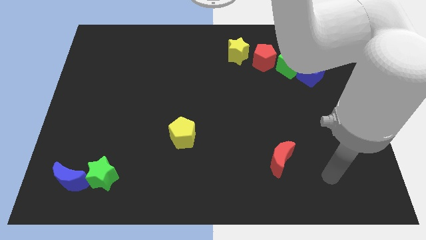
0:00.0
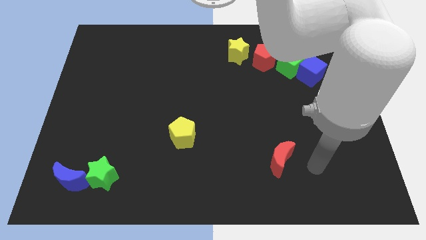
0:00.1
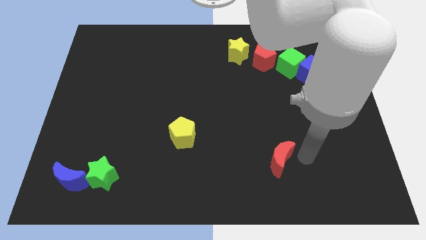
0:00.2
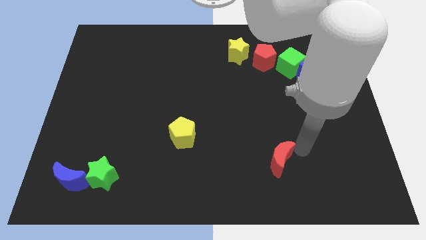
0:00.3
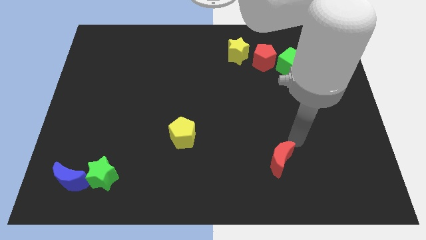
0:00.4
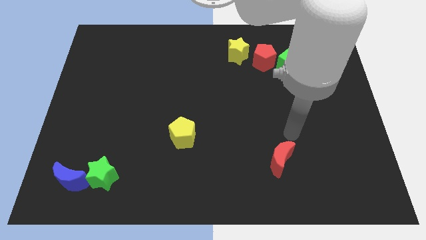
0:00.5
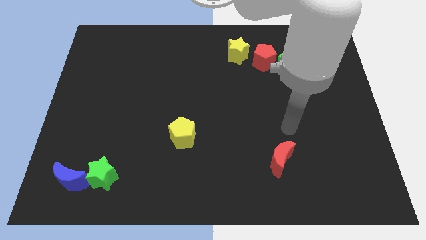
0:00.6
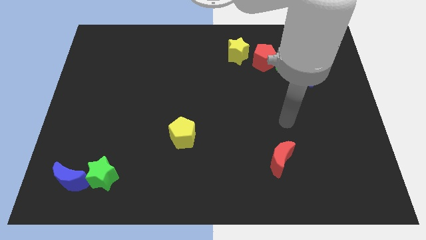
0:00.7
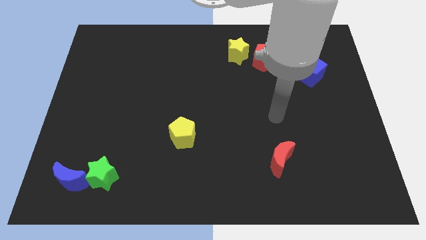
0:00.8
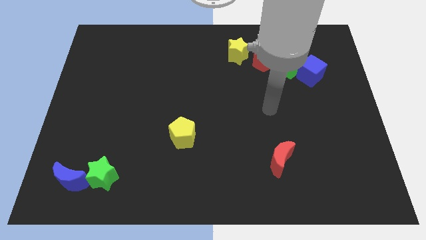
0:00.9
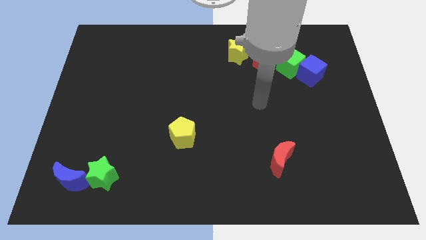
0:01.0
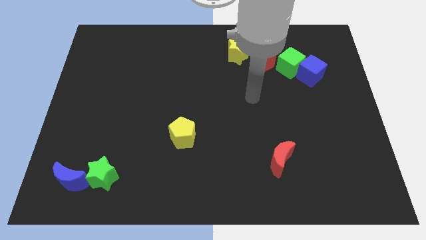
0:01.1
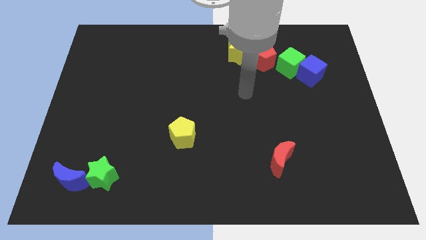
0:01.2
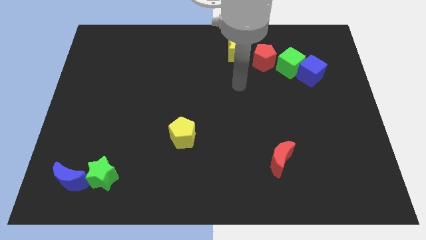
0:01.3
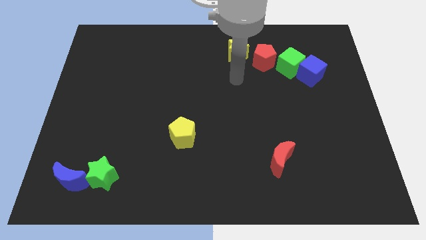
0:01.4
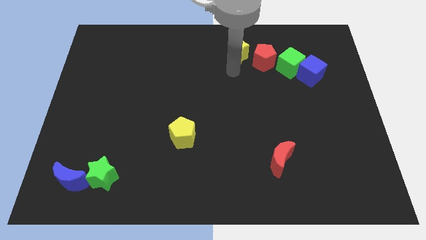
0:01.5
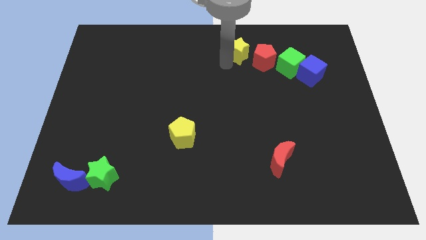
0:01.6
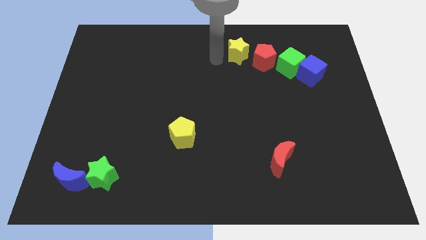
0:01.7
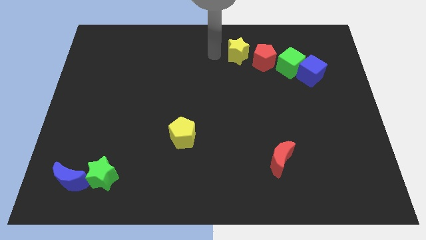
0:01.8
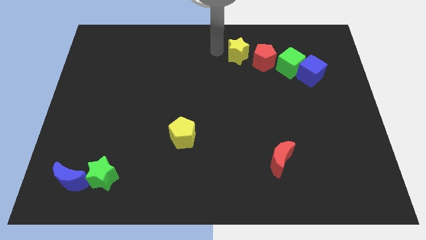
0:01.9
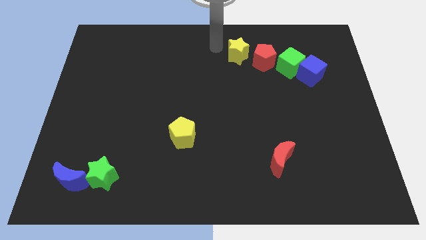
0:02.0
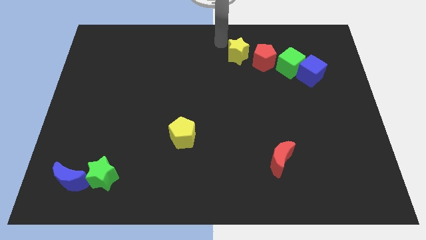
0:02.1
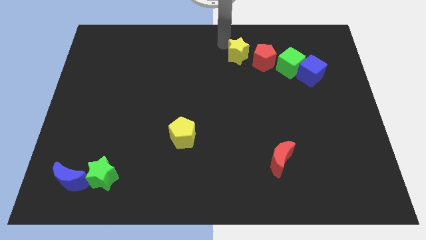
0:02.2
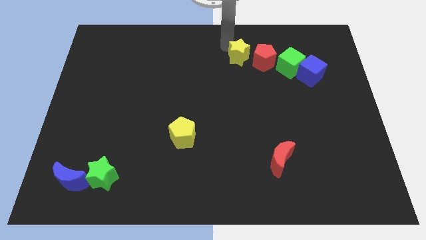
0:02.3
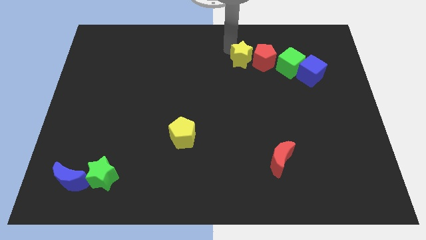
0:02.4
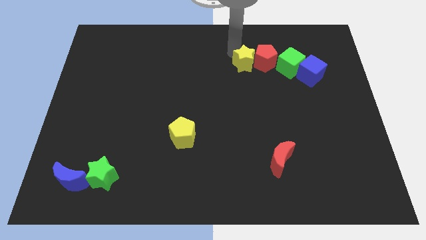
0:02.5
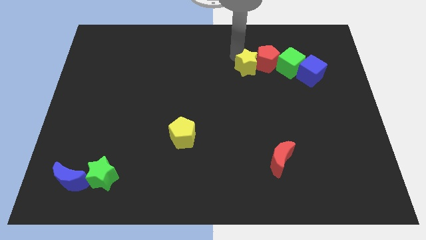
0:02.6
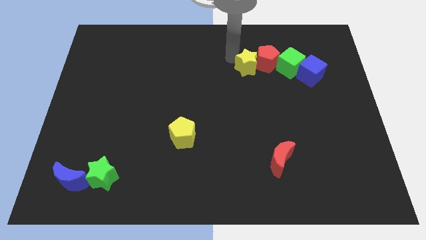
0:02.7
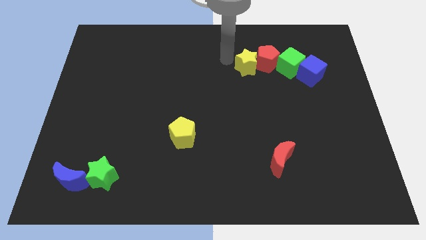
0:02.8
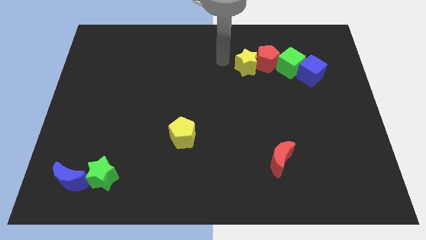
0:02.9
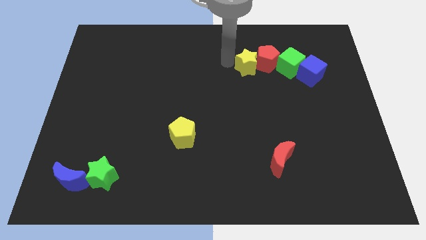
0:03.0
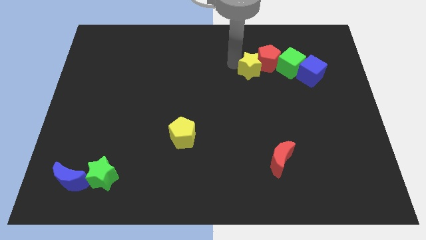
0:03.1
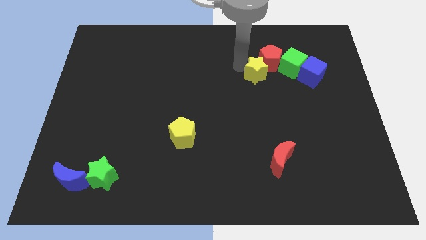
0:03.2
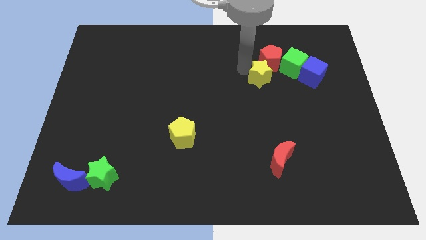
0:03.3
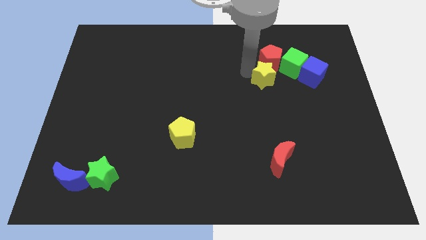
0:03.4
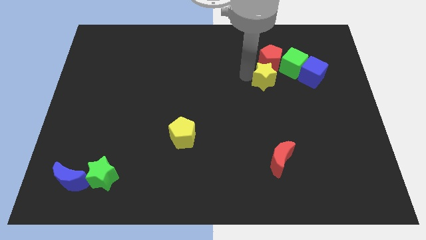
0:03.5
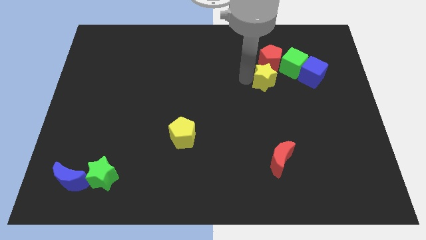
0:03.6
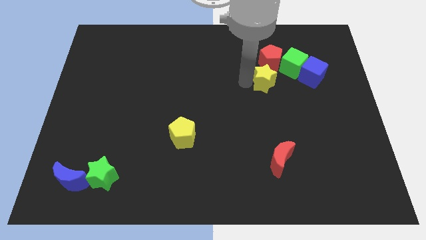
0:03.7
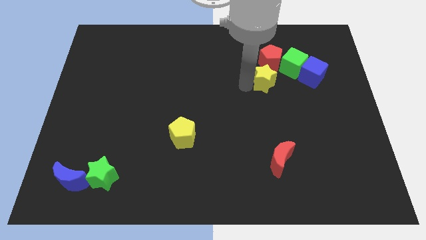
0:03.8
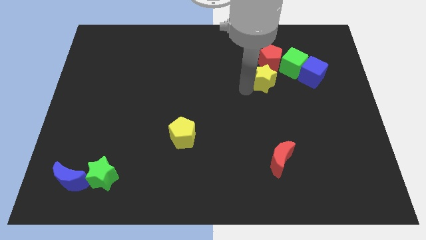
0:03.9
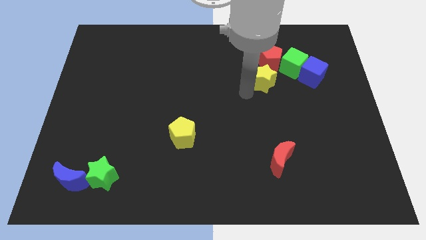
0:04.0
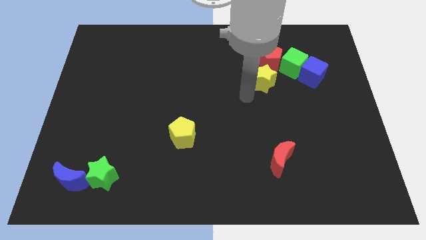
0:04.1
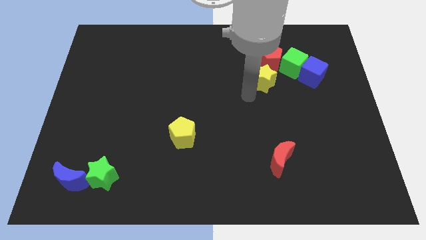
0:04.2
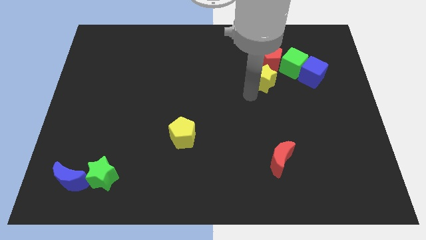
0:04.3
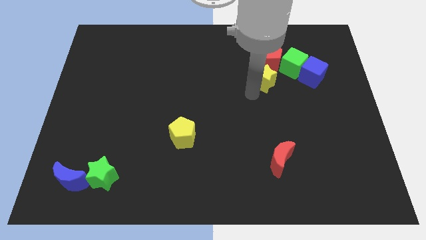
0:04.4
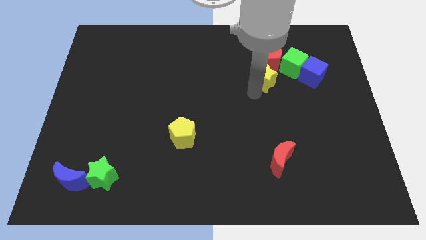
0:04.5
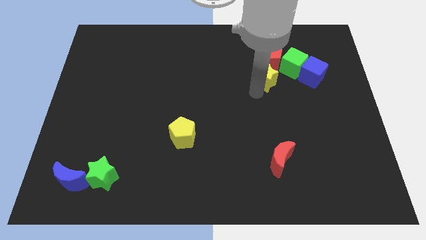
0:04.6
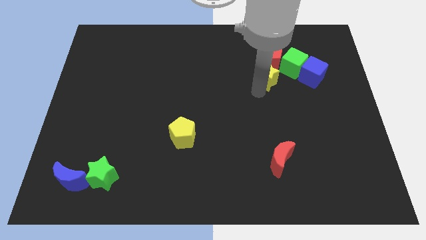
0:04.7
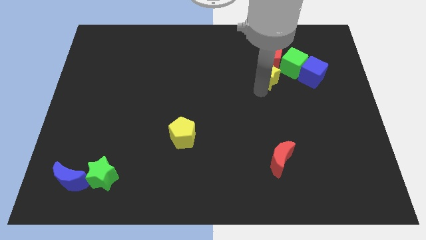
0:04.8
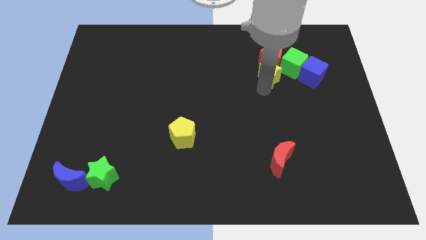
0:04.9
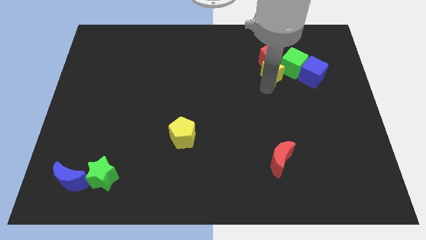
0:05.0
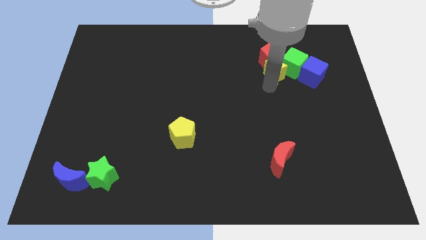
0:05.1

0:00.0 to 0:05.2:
move the yellow star close to the green cube

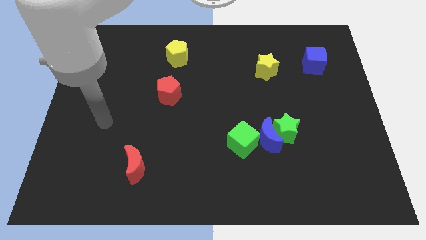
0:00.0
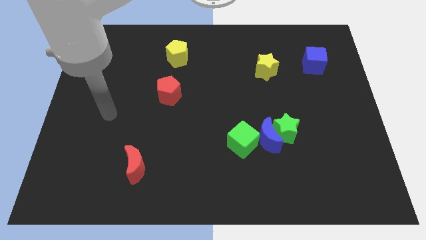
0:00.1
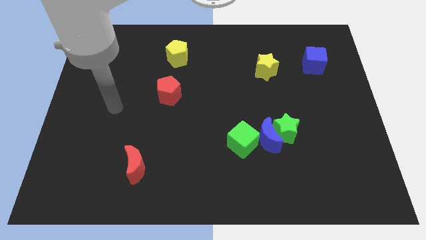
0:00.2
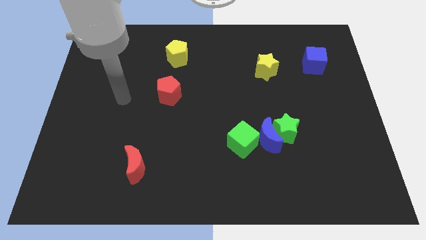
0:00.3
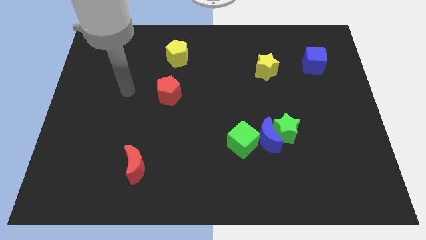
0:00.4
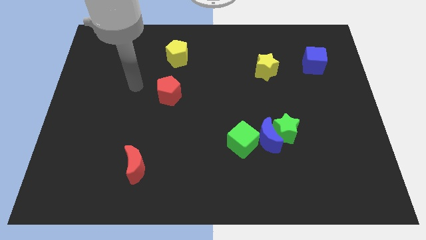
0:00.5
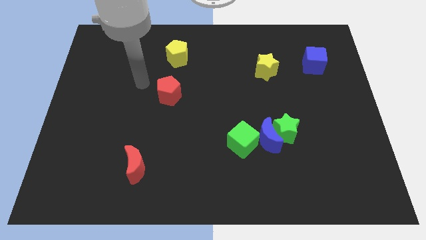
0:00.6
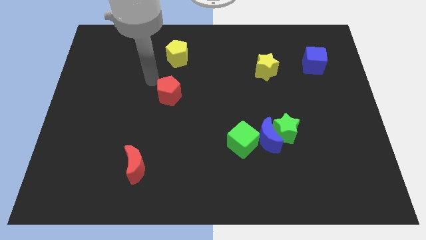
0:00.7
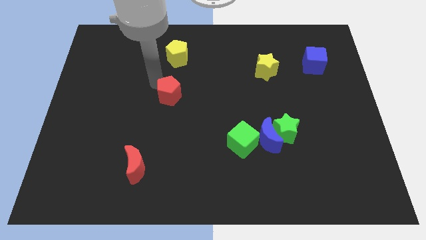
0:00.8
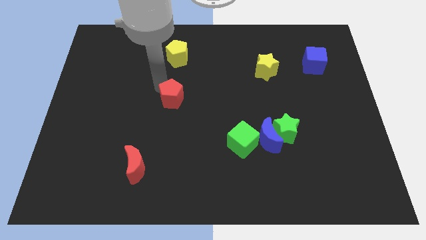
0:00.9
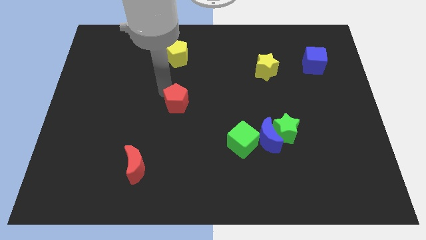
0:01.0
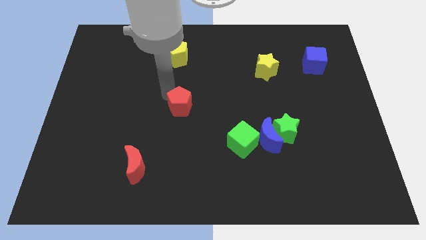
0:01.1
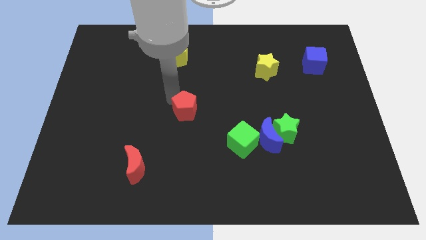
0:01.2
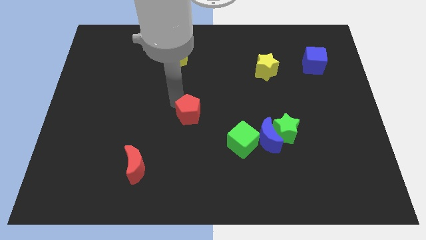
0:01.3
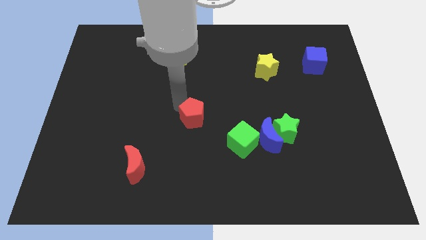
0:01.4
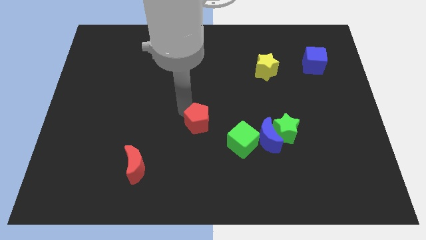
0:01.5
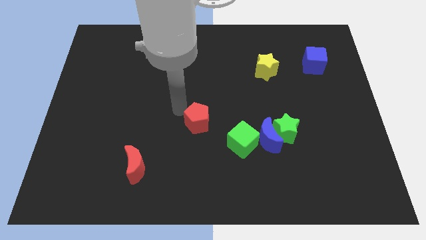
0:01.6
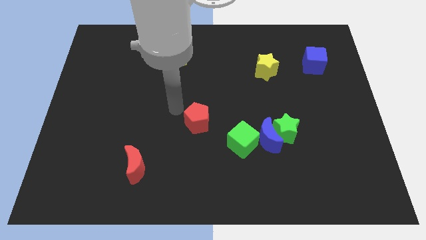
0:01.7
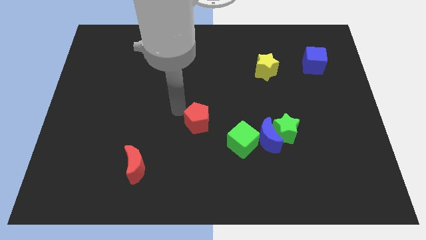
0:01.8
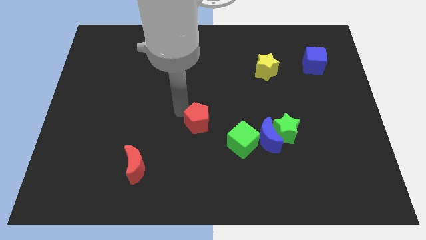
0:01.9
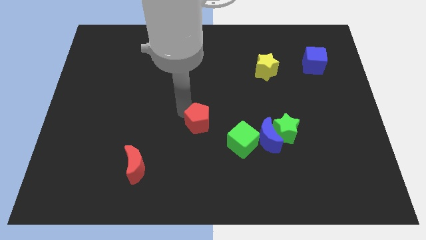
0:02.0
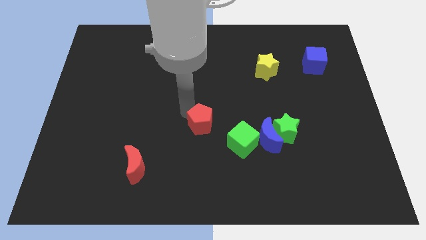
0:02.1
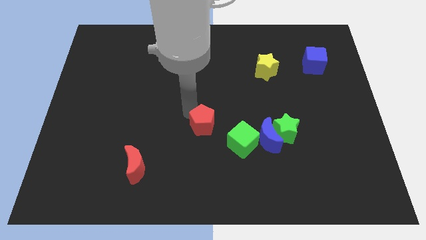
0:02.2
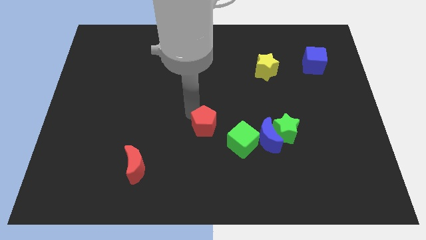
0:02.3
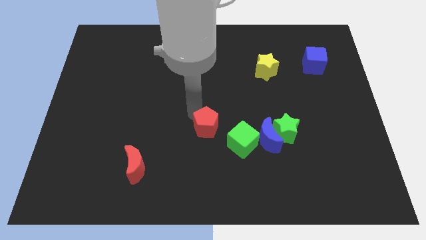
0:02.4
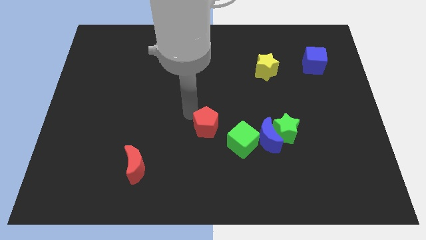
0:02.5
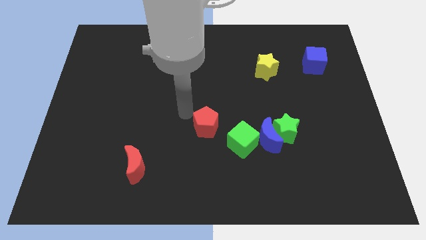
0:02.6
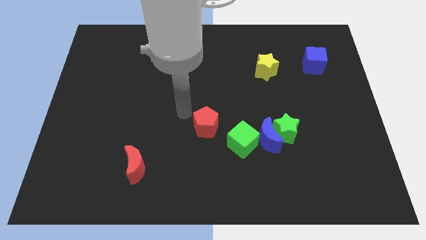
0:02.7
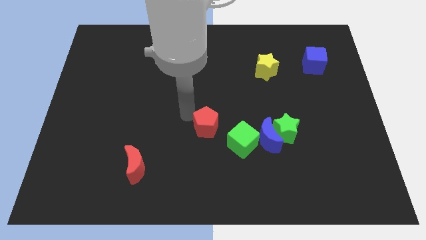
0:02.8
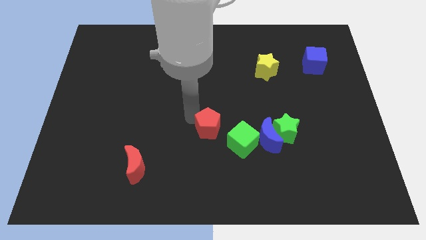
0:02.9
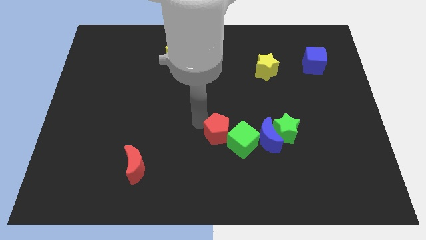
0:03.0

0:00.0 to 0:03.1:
move the red pentagon to the green cube
